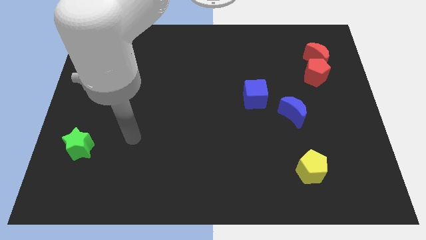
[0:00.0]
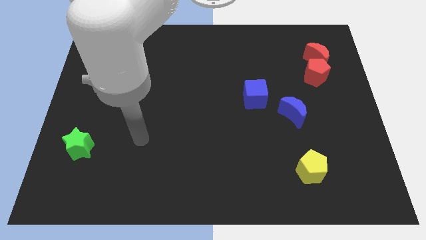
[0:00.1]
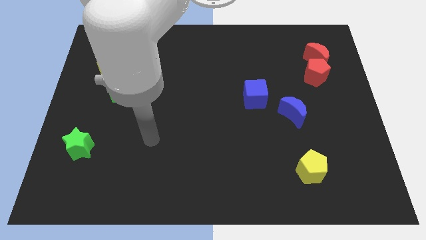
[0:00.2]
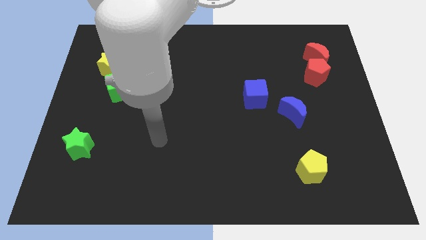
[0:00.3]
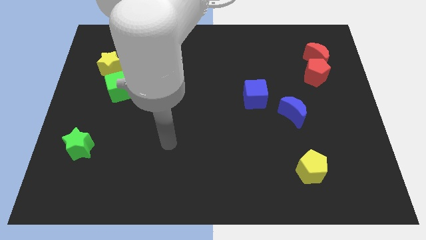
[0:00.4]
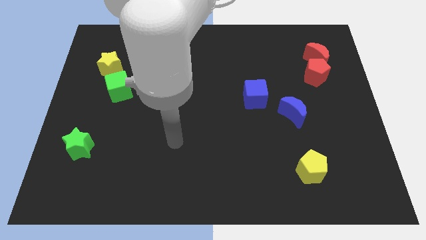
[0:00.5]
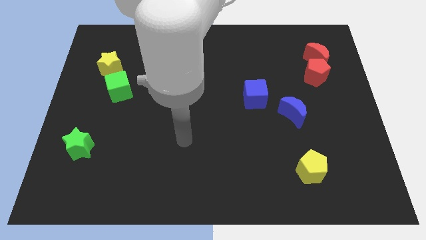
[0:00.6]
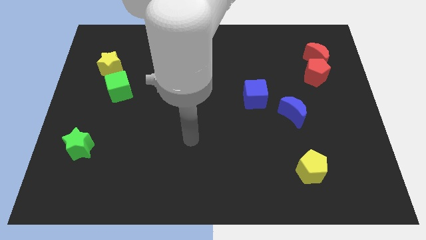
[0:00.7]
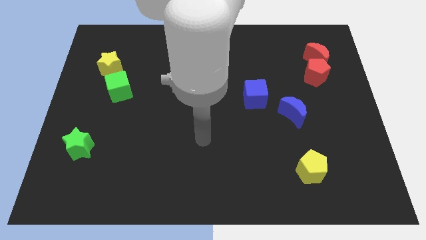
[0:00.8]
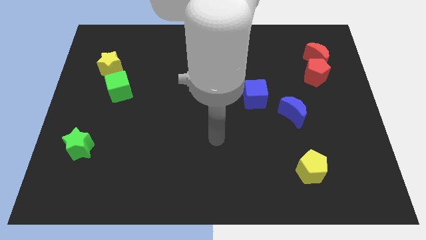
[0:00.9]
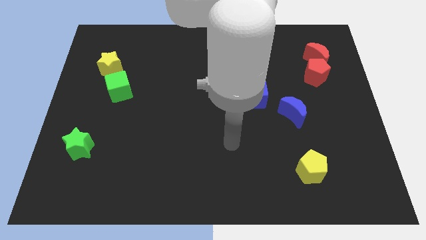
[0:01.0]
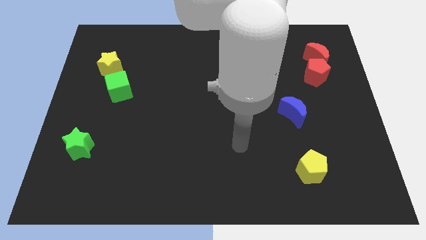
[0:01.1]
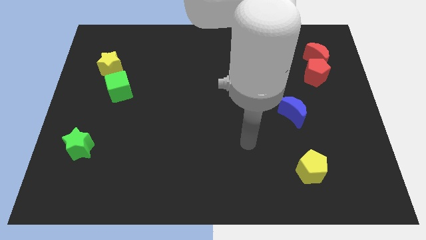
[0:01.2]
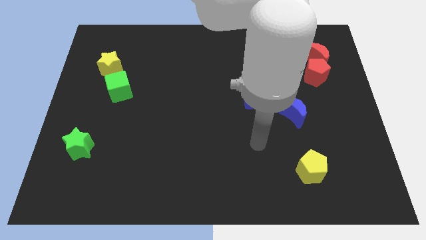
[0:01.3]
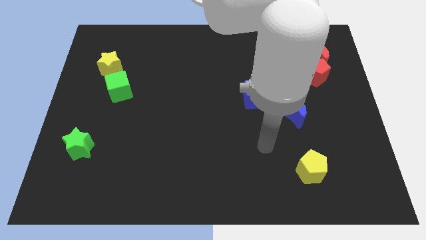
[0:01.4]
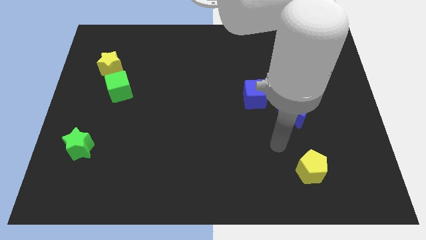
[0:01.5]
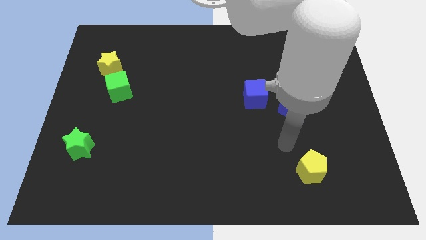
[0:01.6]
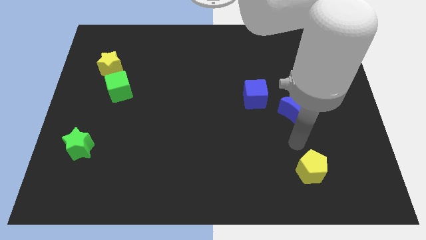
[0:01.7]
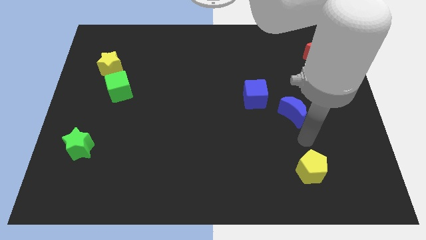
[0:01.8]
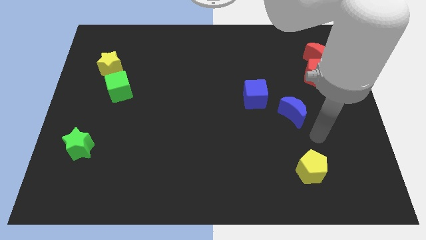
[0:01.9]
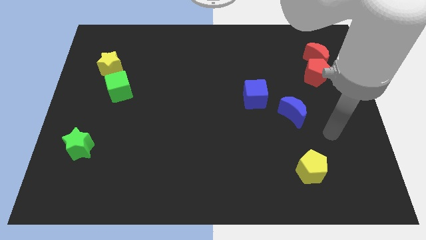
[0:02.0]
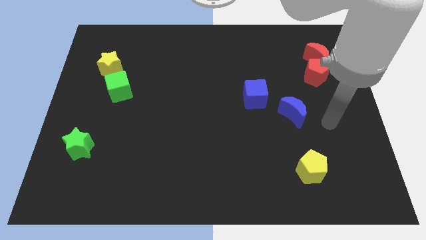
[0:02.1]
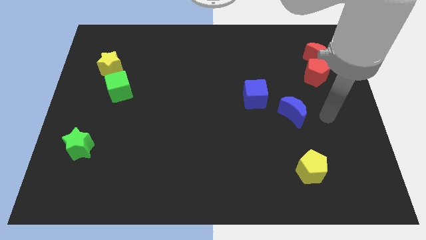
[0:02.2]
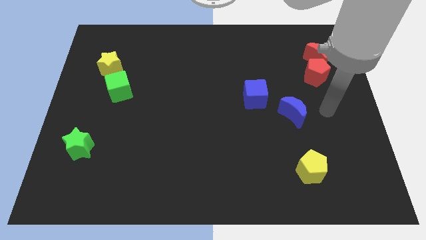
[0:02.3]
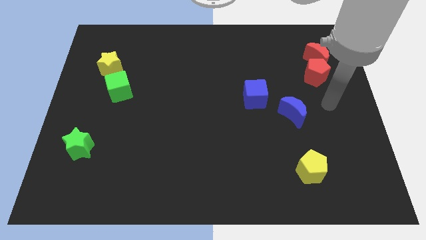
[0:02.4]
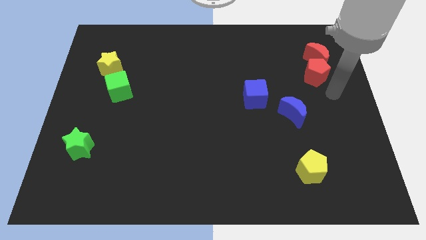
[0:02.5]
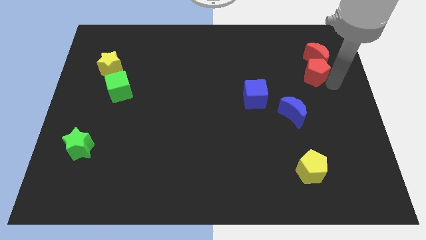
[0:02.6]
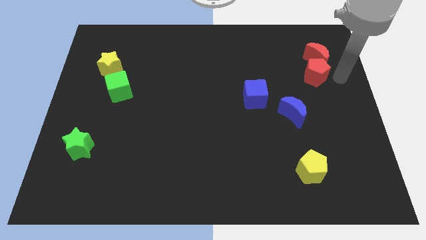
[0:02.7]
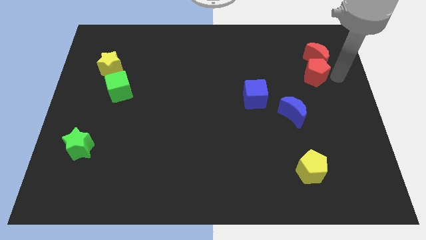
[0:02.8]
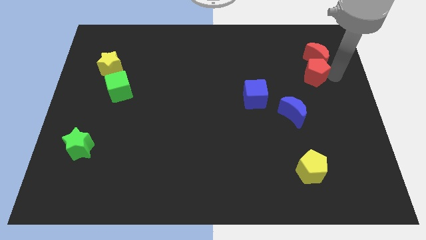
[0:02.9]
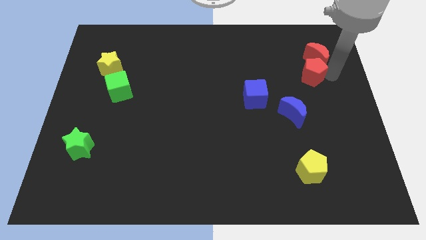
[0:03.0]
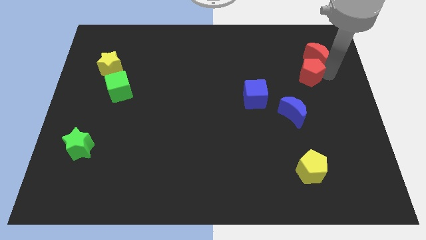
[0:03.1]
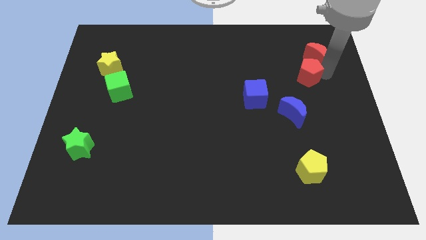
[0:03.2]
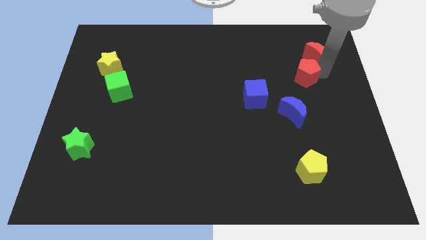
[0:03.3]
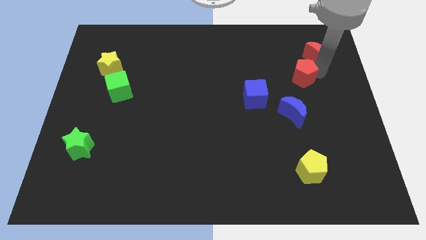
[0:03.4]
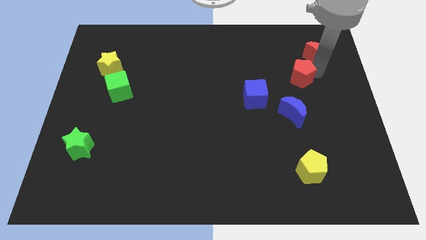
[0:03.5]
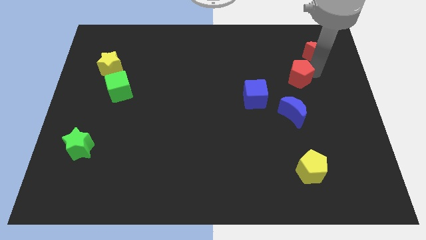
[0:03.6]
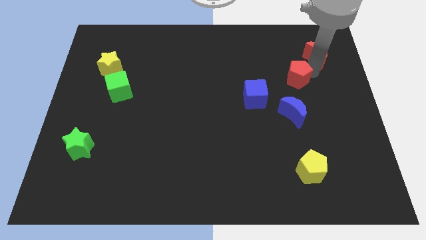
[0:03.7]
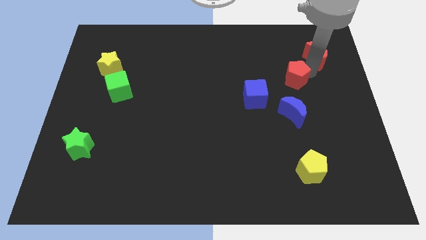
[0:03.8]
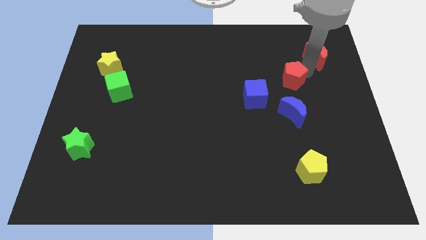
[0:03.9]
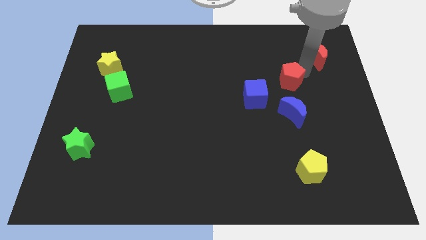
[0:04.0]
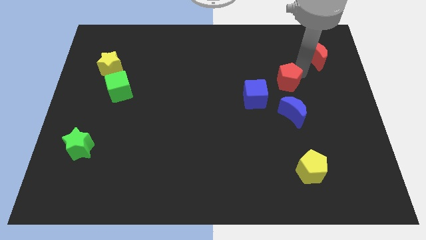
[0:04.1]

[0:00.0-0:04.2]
move the red pentagon to the left a little

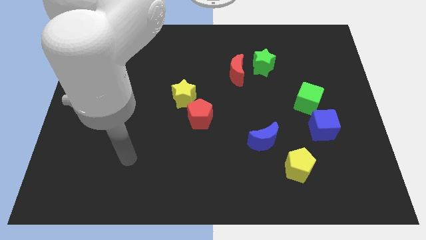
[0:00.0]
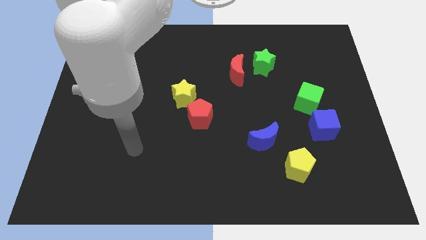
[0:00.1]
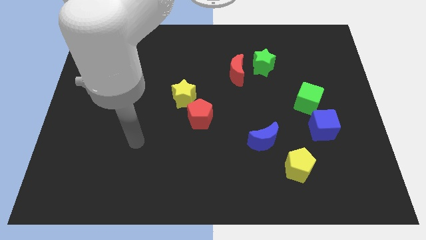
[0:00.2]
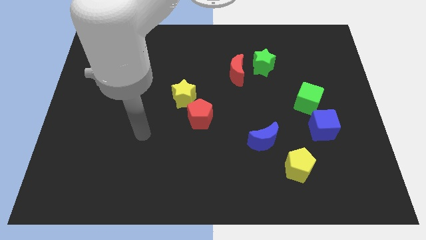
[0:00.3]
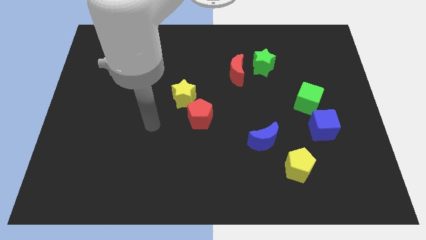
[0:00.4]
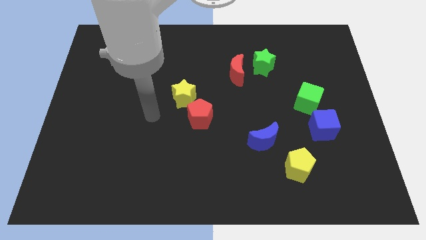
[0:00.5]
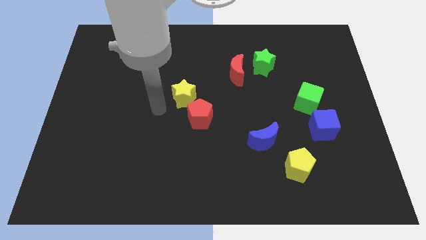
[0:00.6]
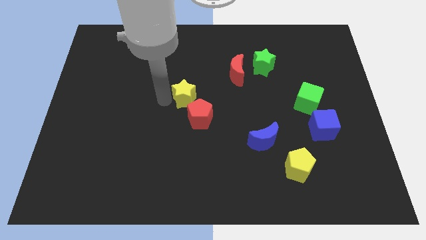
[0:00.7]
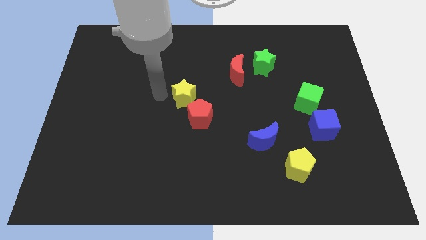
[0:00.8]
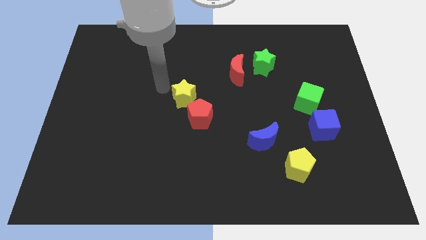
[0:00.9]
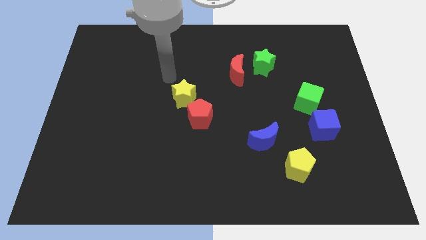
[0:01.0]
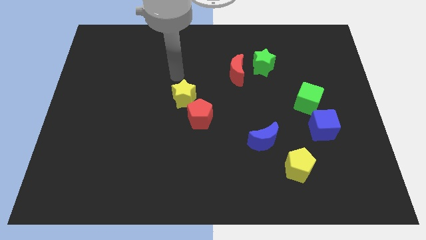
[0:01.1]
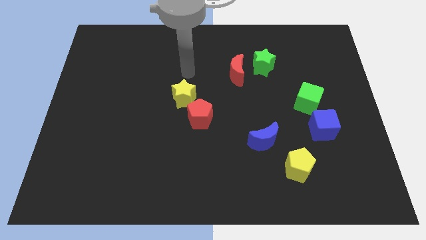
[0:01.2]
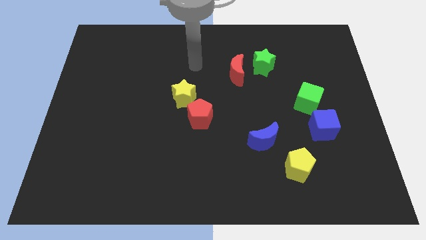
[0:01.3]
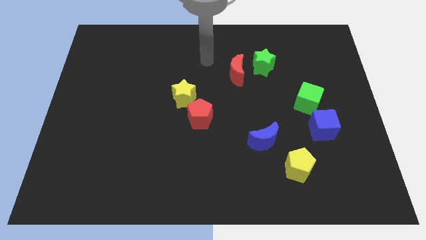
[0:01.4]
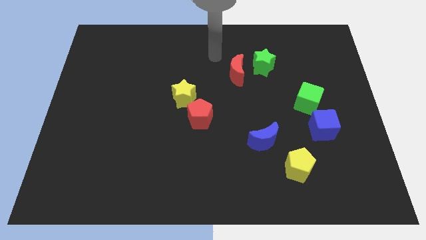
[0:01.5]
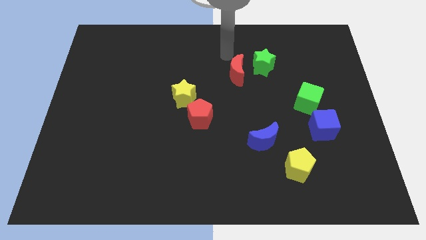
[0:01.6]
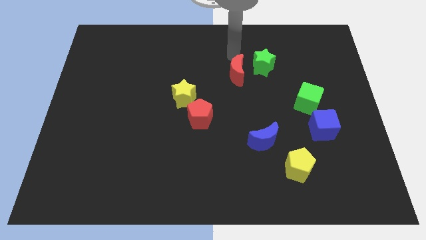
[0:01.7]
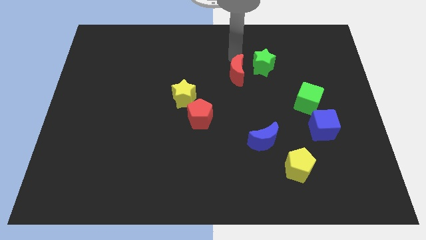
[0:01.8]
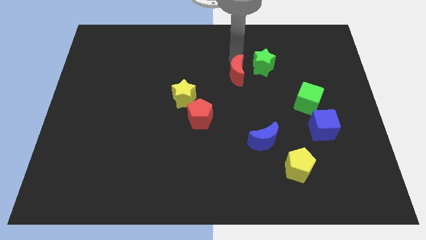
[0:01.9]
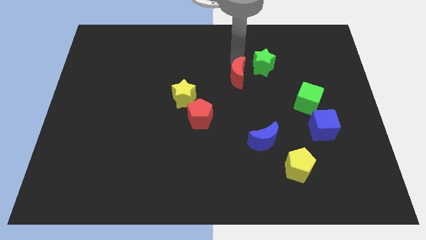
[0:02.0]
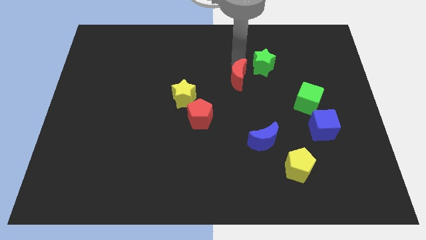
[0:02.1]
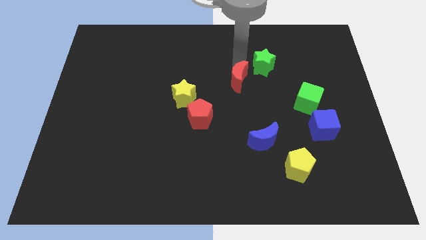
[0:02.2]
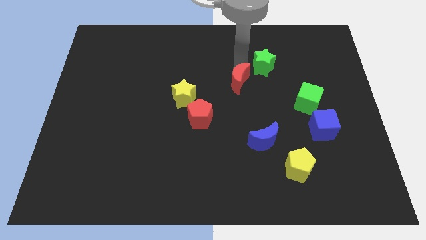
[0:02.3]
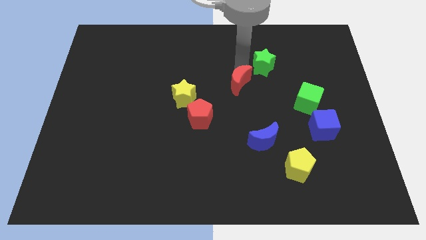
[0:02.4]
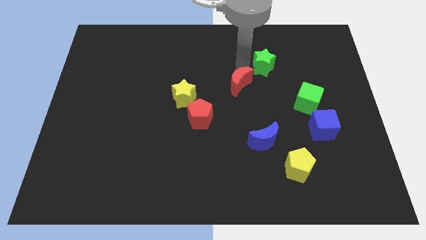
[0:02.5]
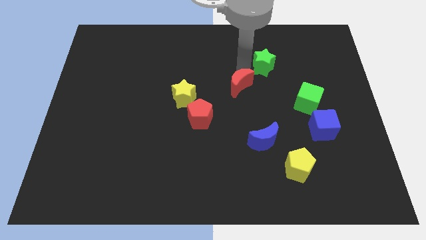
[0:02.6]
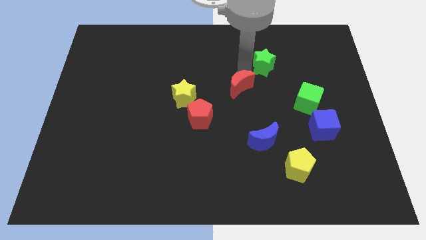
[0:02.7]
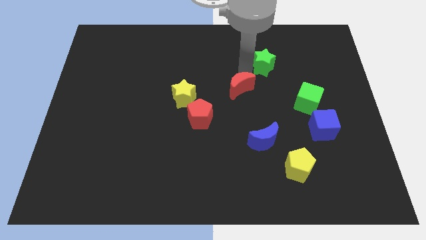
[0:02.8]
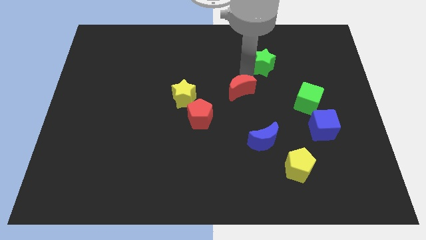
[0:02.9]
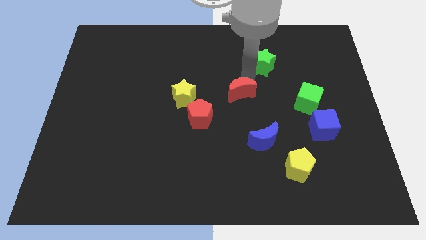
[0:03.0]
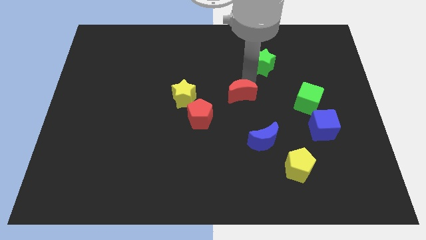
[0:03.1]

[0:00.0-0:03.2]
push the red moon down a bit

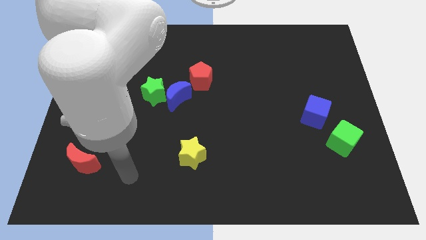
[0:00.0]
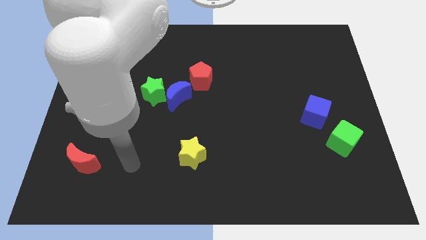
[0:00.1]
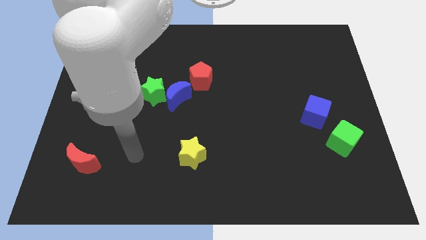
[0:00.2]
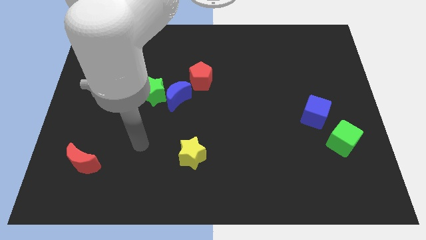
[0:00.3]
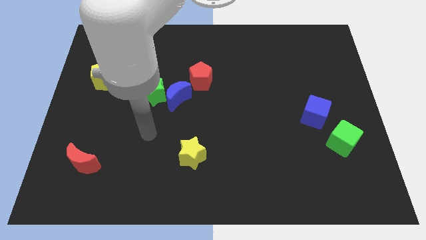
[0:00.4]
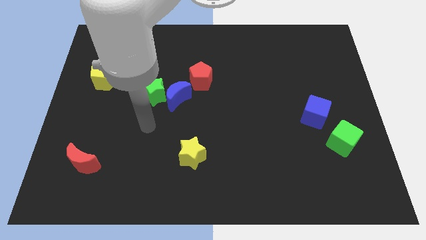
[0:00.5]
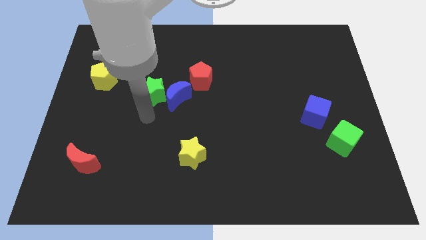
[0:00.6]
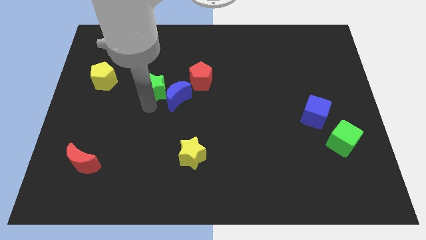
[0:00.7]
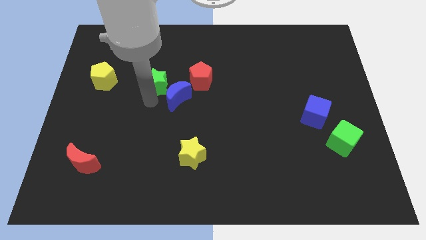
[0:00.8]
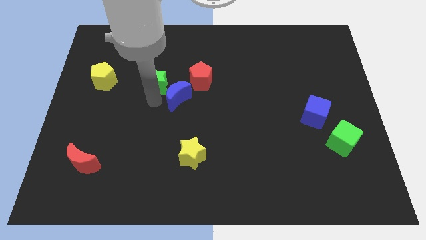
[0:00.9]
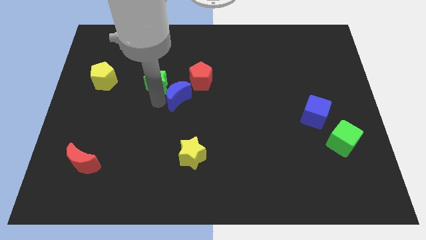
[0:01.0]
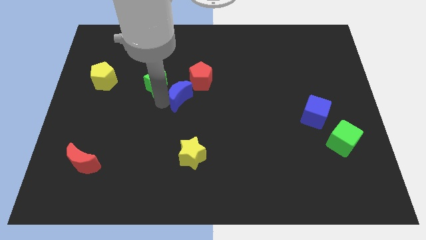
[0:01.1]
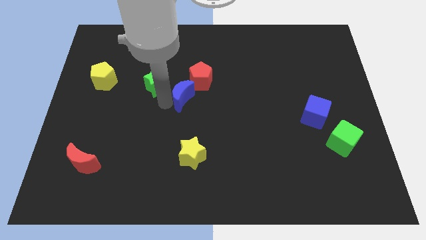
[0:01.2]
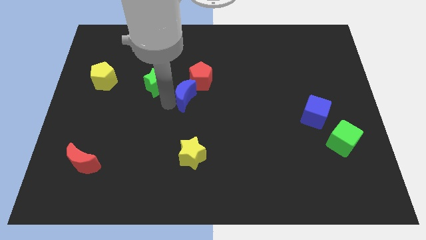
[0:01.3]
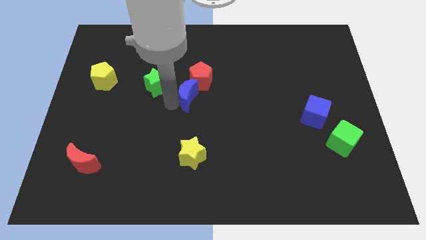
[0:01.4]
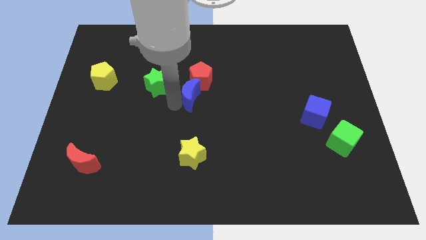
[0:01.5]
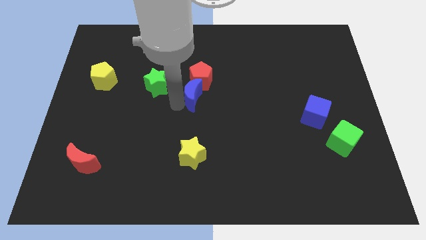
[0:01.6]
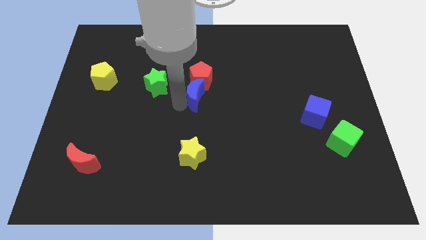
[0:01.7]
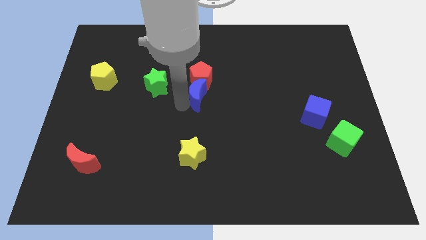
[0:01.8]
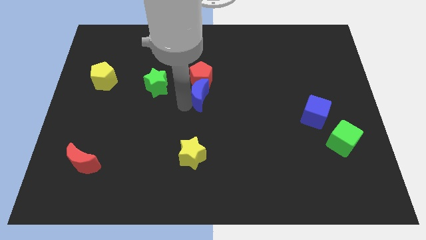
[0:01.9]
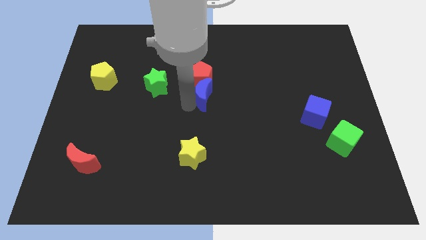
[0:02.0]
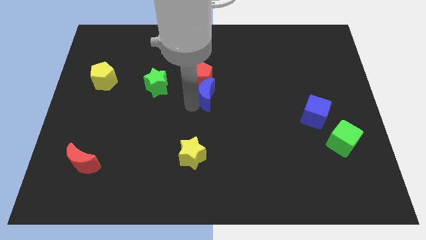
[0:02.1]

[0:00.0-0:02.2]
slightly slide the blue moon right
